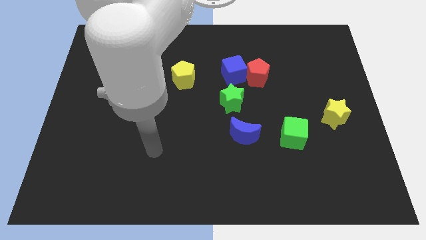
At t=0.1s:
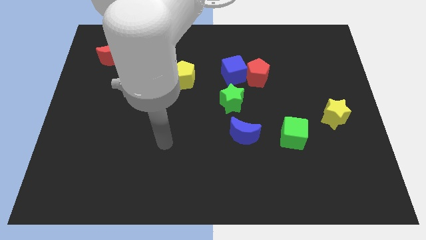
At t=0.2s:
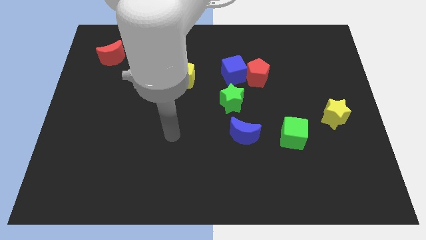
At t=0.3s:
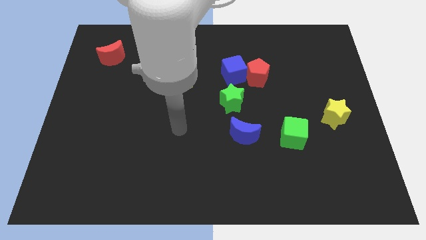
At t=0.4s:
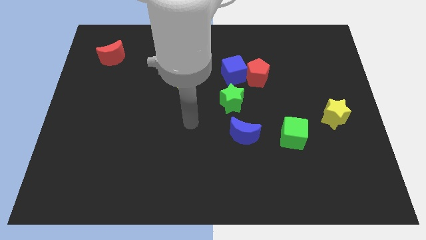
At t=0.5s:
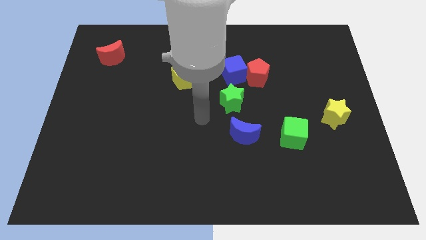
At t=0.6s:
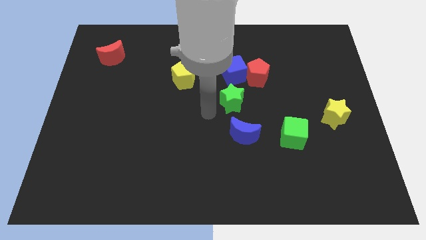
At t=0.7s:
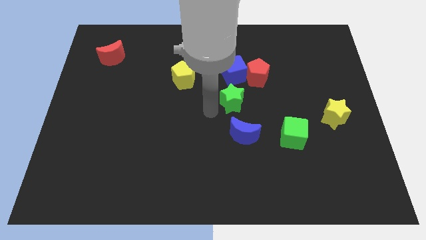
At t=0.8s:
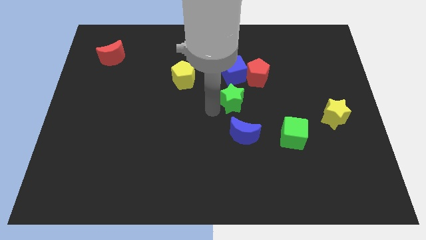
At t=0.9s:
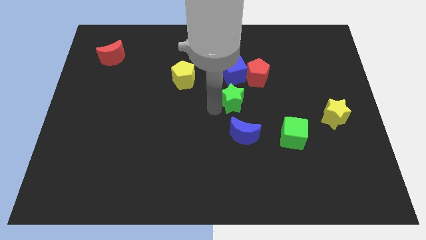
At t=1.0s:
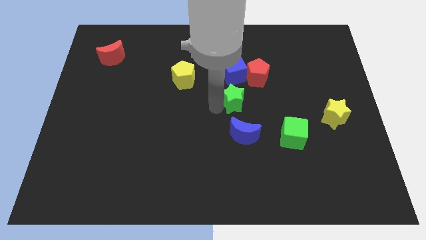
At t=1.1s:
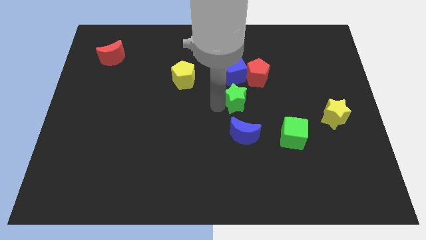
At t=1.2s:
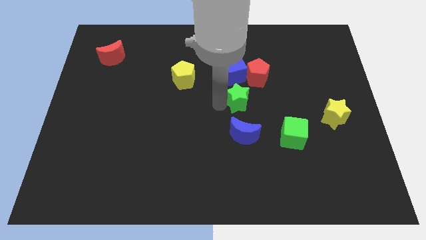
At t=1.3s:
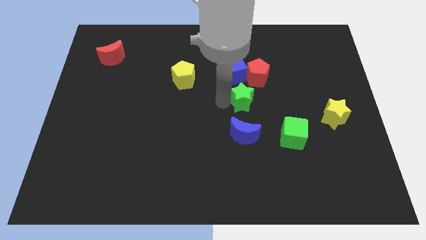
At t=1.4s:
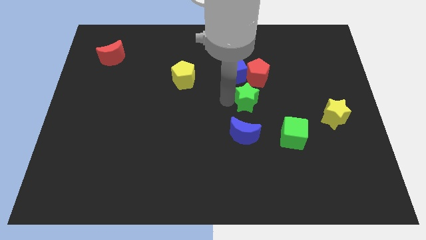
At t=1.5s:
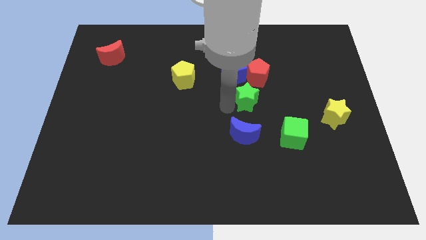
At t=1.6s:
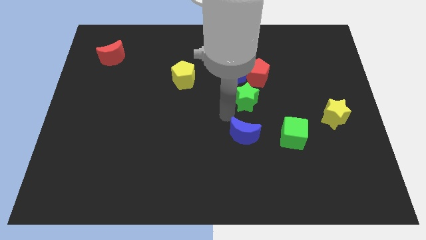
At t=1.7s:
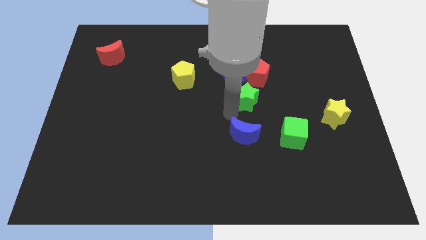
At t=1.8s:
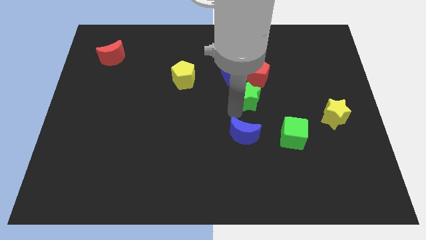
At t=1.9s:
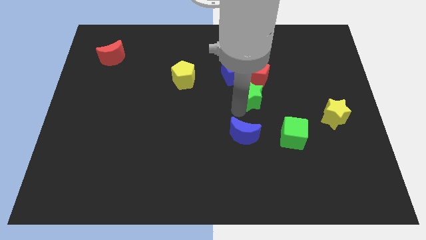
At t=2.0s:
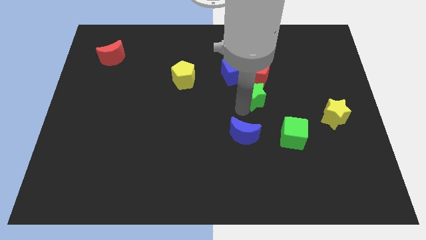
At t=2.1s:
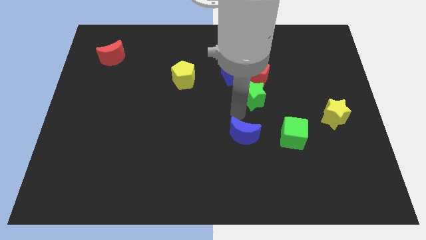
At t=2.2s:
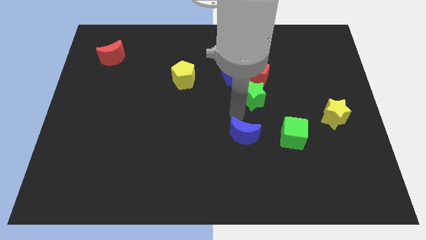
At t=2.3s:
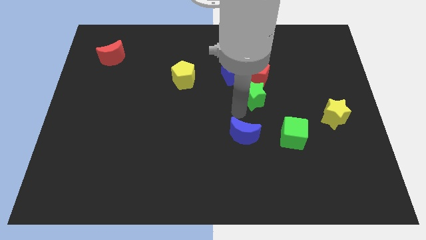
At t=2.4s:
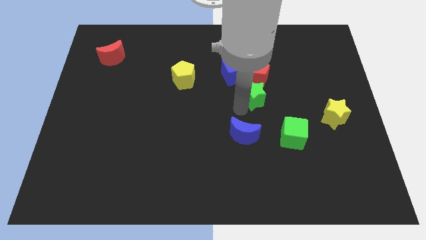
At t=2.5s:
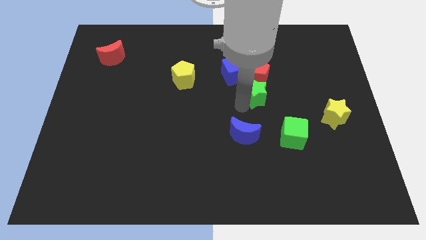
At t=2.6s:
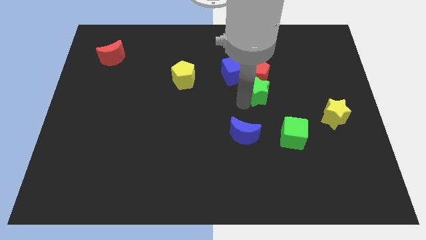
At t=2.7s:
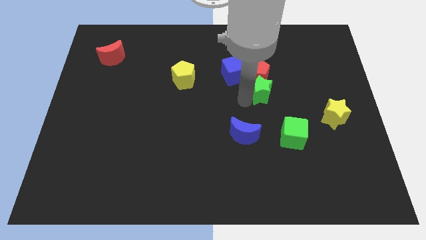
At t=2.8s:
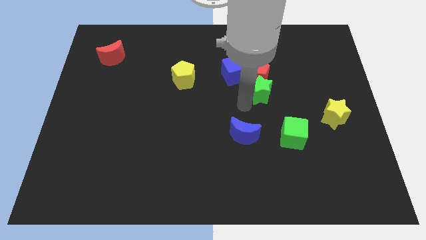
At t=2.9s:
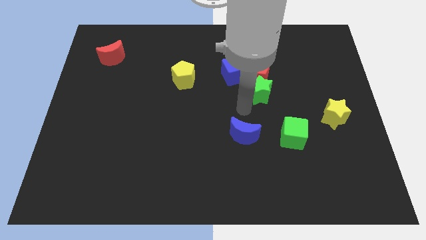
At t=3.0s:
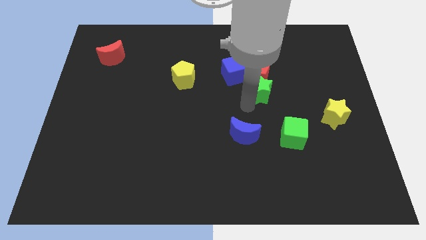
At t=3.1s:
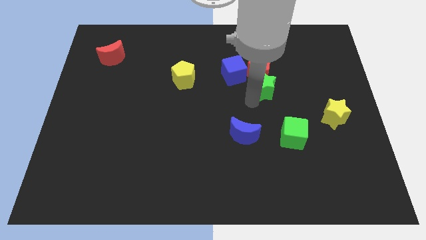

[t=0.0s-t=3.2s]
slightly slide the green star diagonally upwards and right

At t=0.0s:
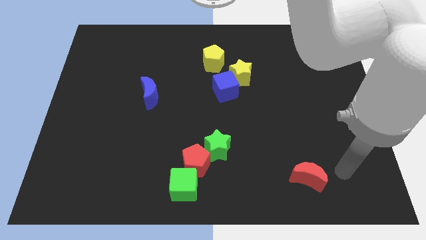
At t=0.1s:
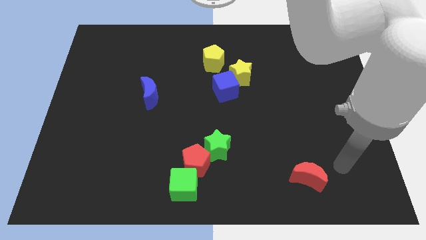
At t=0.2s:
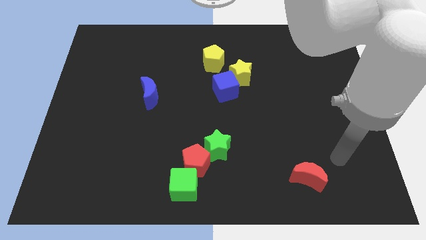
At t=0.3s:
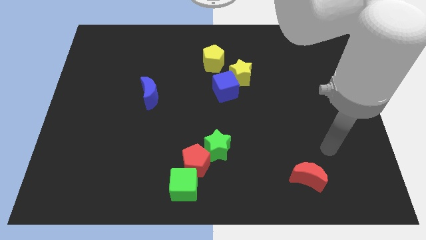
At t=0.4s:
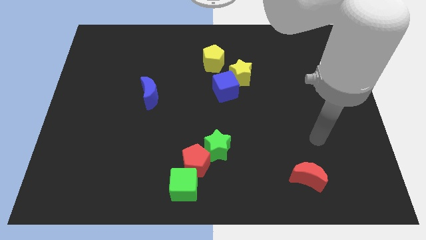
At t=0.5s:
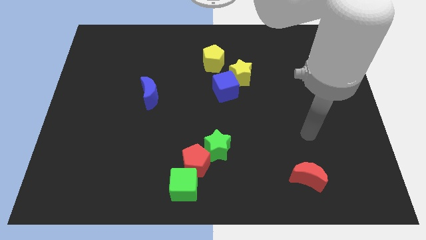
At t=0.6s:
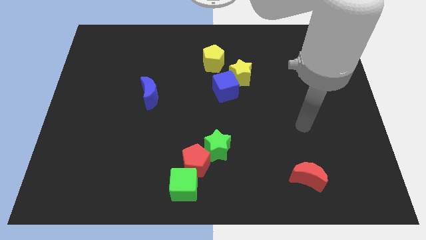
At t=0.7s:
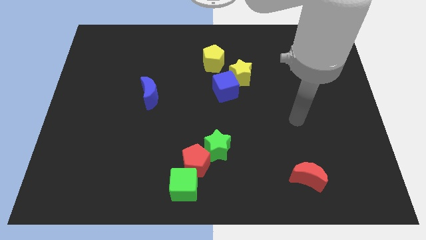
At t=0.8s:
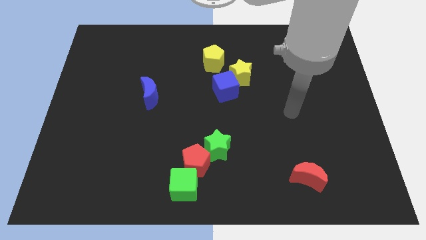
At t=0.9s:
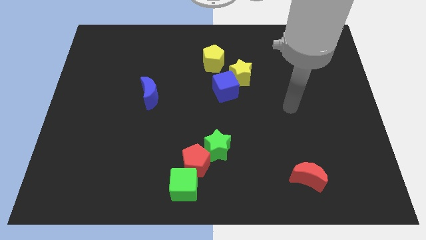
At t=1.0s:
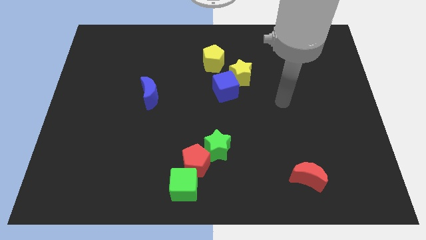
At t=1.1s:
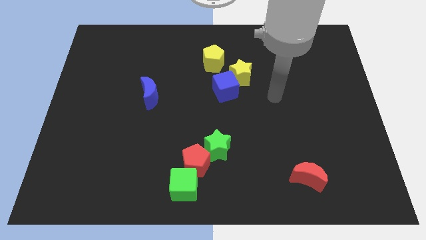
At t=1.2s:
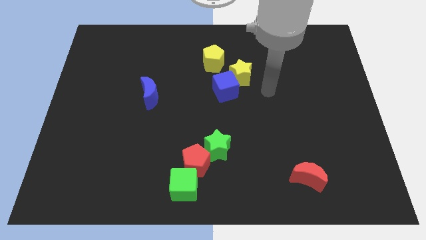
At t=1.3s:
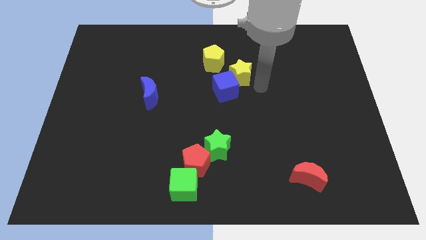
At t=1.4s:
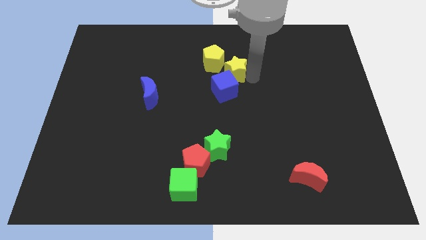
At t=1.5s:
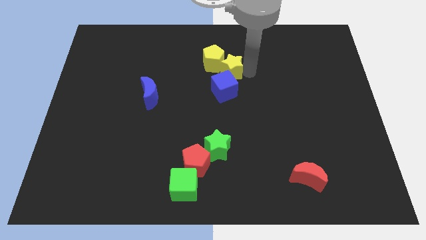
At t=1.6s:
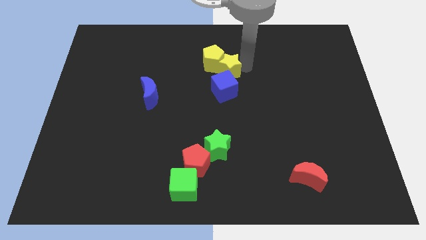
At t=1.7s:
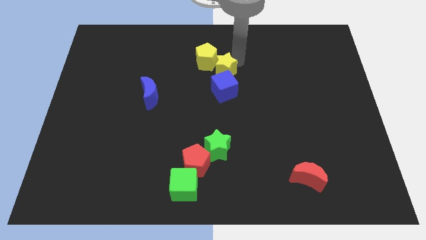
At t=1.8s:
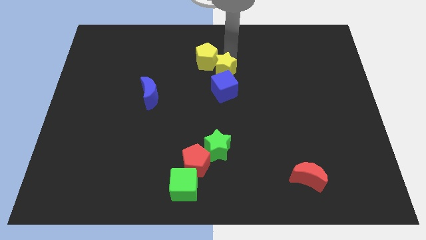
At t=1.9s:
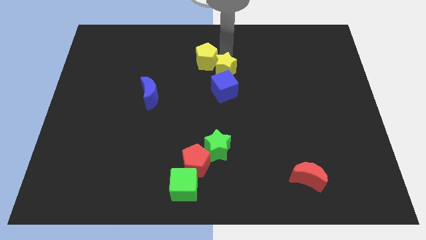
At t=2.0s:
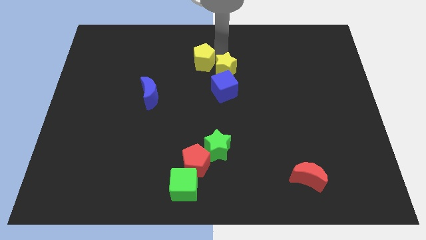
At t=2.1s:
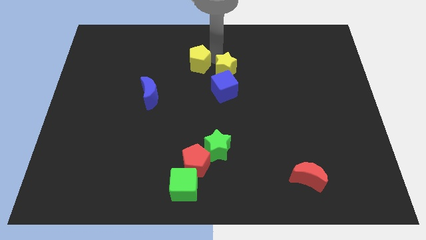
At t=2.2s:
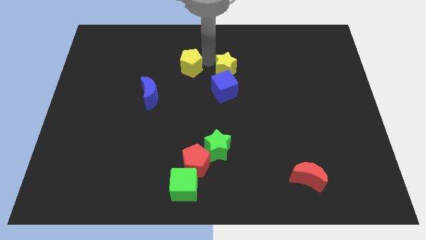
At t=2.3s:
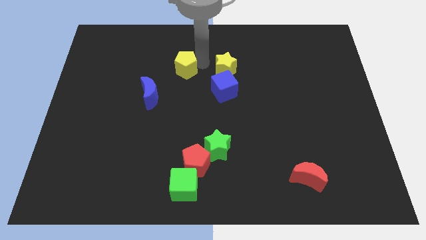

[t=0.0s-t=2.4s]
slide the yellow pentagon a little bit to the left

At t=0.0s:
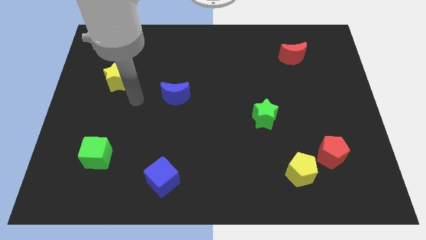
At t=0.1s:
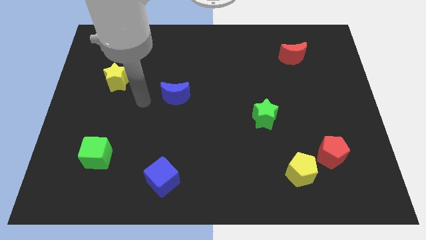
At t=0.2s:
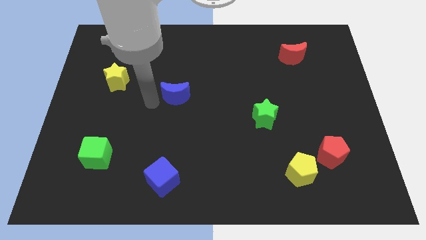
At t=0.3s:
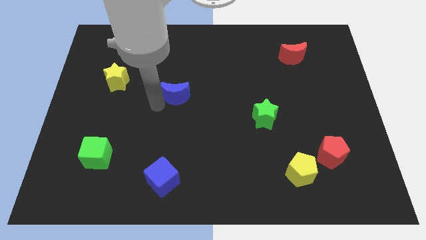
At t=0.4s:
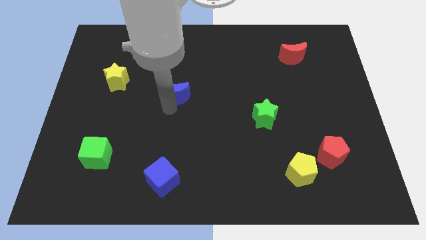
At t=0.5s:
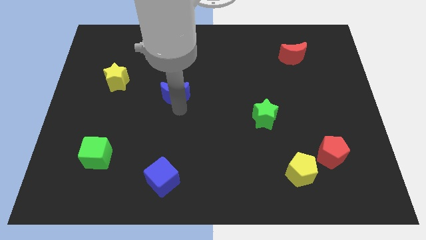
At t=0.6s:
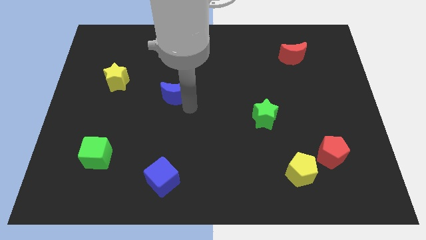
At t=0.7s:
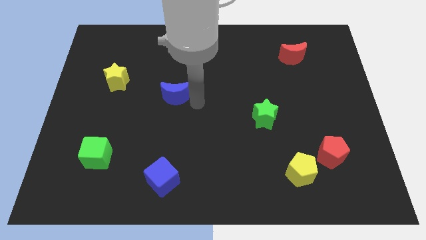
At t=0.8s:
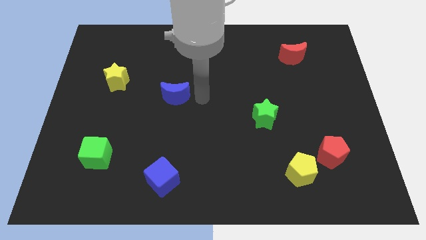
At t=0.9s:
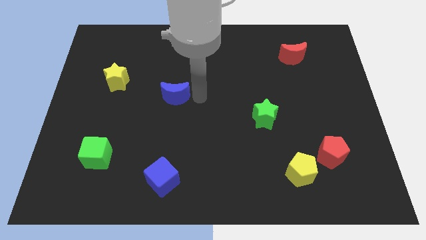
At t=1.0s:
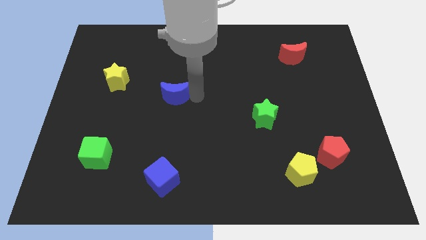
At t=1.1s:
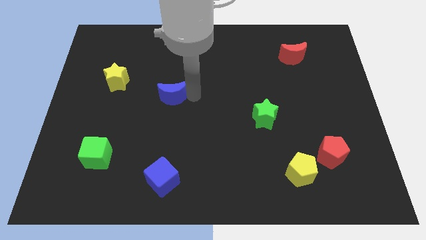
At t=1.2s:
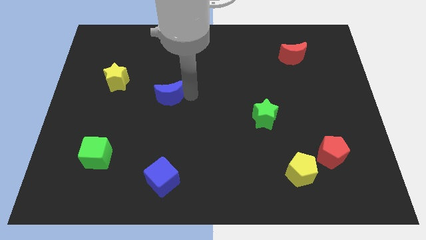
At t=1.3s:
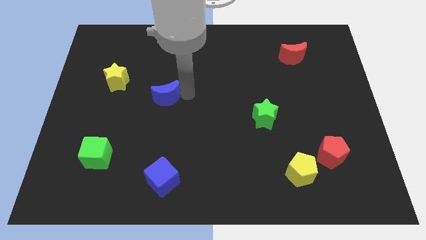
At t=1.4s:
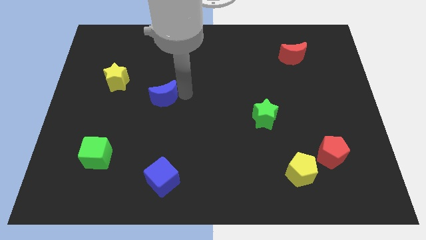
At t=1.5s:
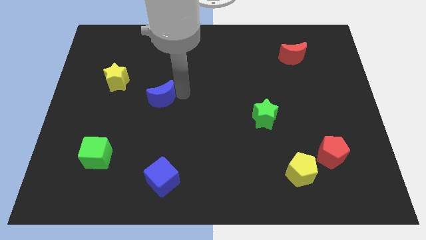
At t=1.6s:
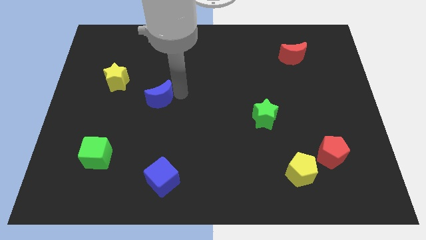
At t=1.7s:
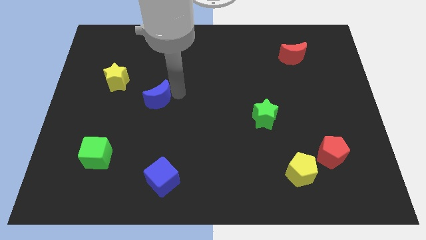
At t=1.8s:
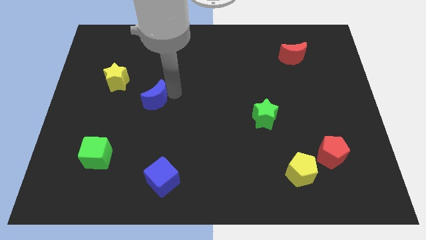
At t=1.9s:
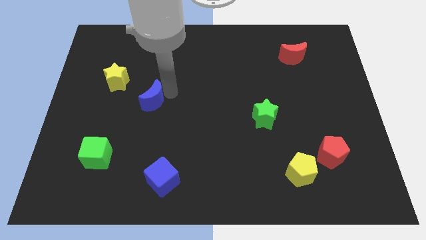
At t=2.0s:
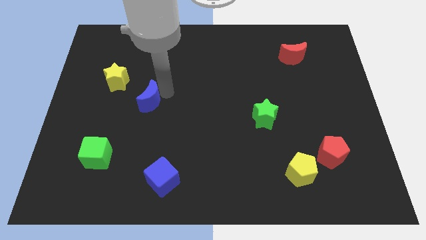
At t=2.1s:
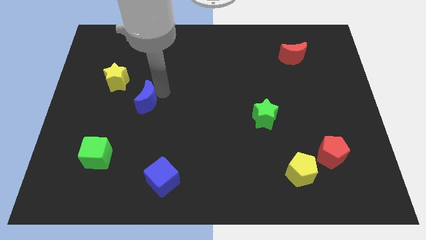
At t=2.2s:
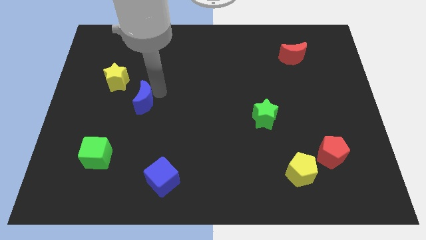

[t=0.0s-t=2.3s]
push the blue moon to the left slightly
